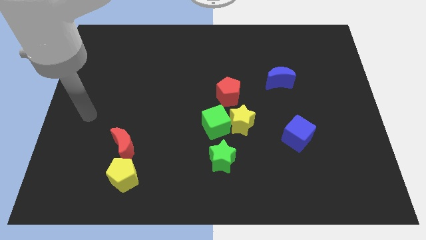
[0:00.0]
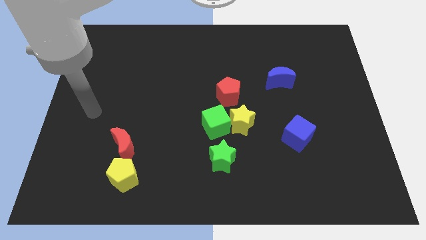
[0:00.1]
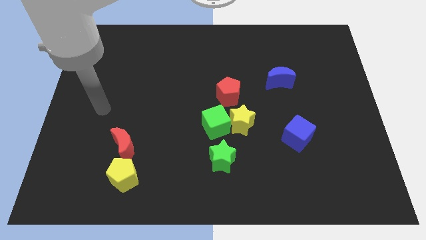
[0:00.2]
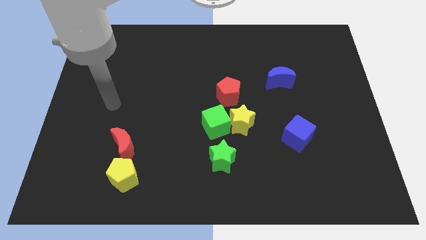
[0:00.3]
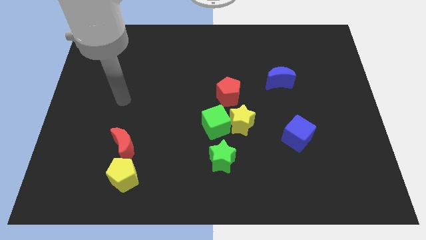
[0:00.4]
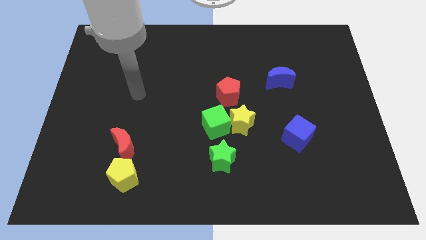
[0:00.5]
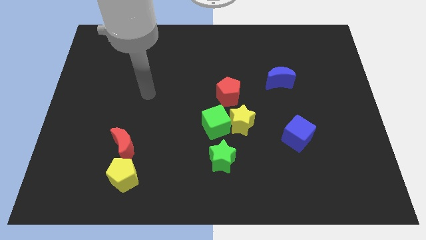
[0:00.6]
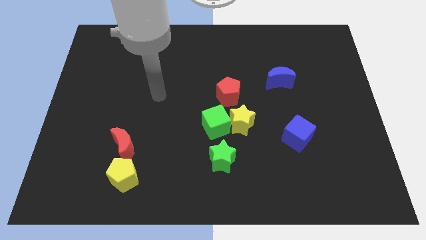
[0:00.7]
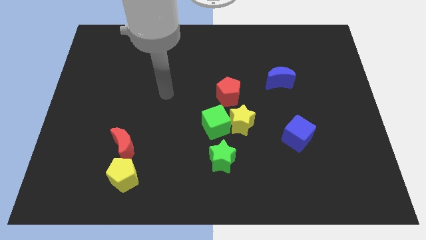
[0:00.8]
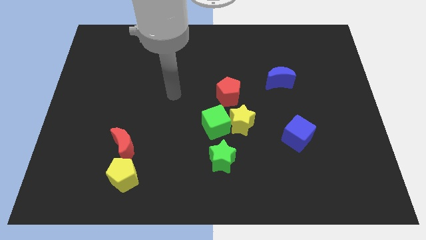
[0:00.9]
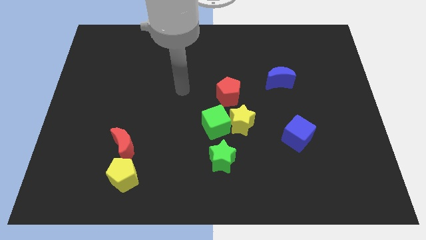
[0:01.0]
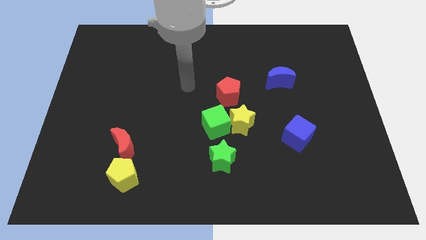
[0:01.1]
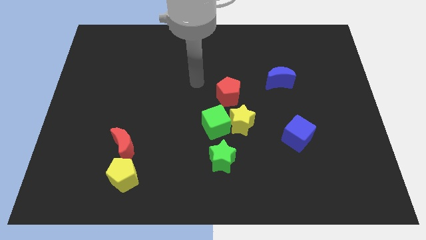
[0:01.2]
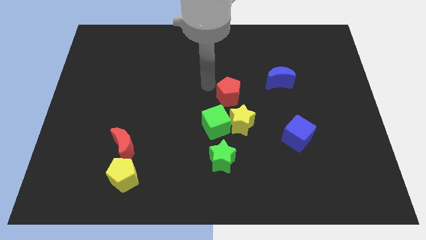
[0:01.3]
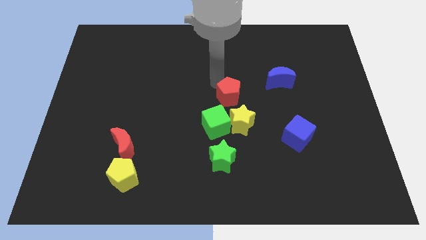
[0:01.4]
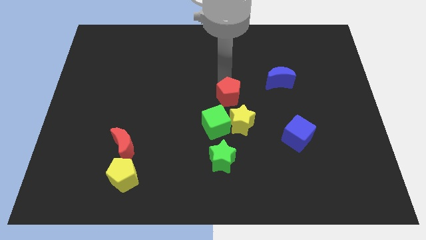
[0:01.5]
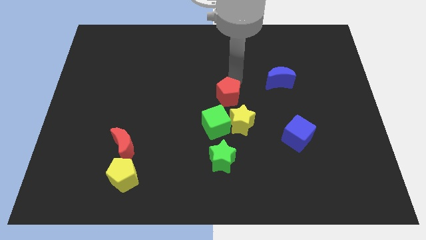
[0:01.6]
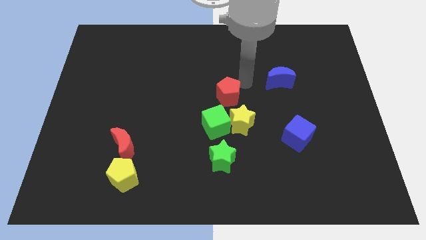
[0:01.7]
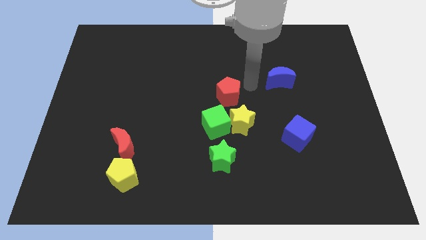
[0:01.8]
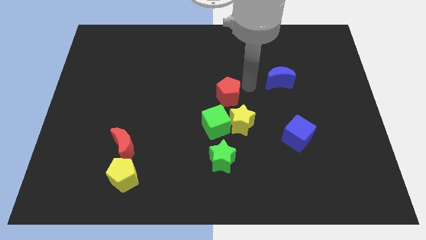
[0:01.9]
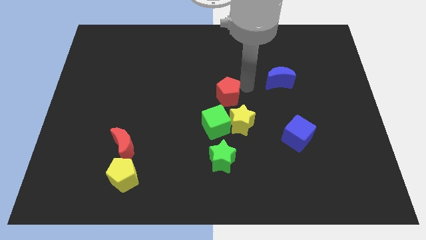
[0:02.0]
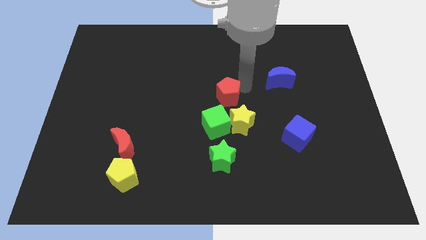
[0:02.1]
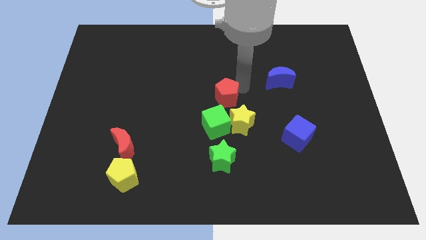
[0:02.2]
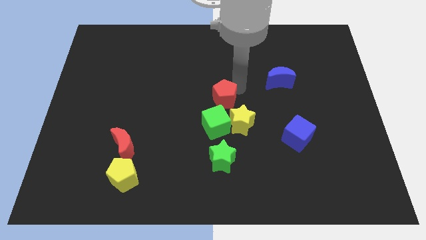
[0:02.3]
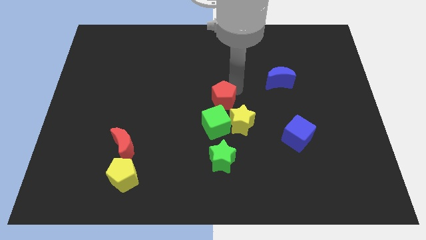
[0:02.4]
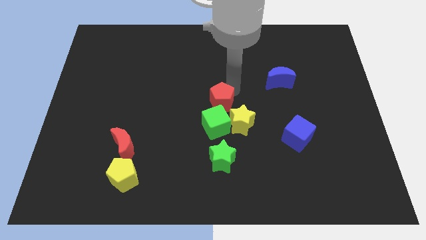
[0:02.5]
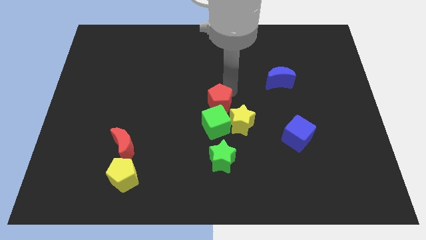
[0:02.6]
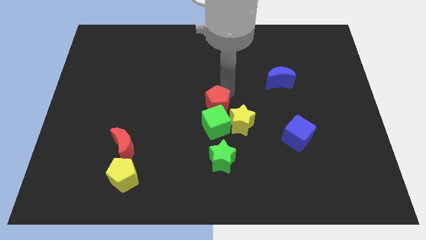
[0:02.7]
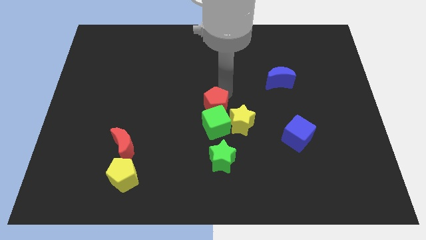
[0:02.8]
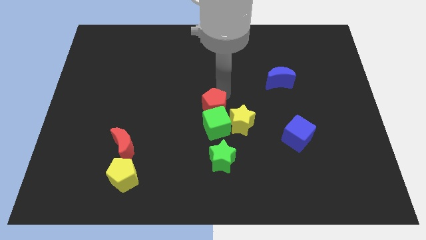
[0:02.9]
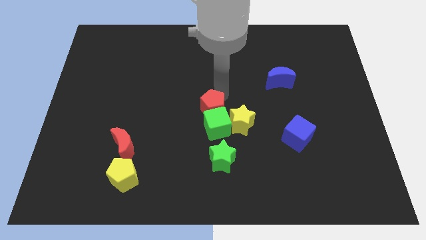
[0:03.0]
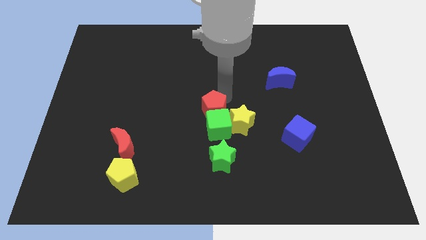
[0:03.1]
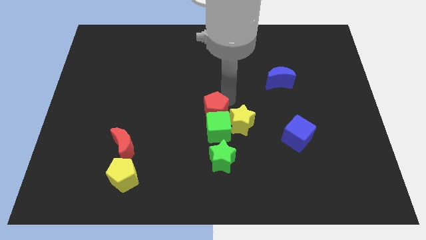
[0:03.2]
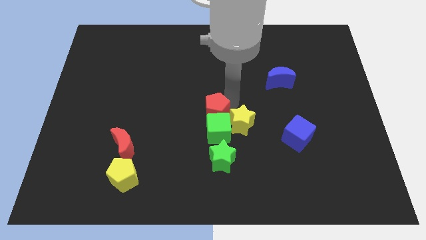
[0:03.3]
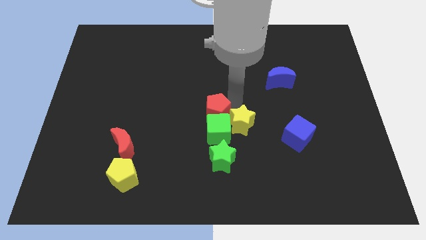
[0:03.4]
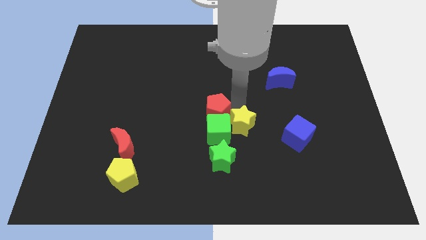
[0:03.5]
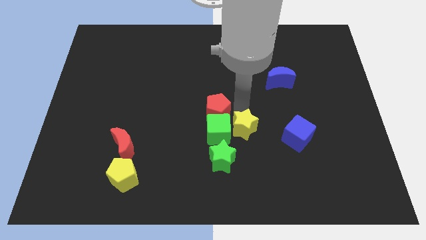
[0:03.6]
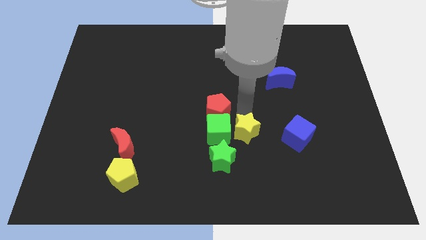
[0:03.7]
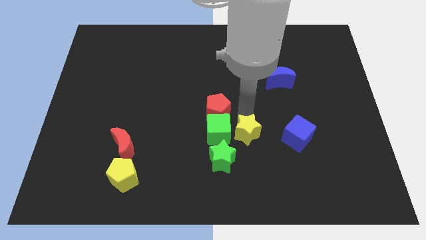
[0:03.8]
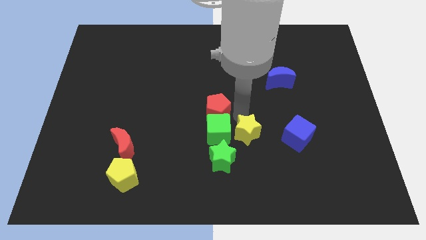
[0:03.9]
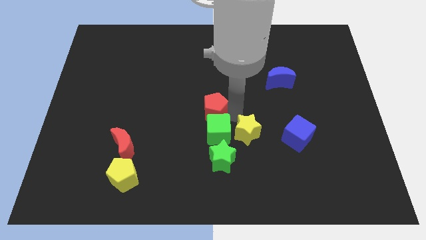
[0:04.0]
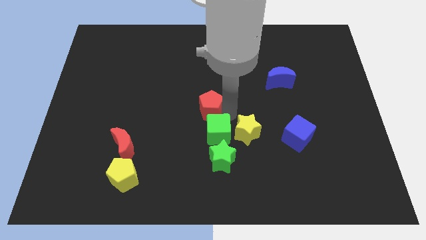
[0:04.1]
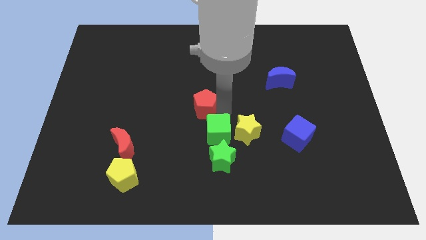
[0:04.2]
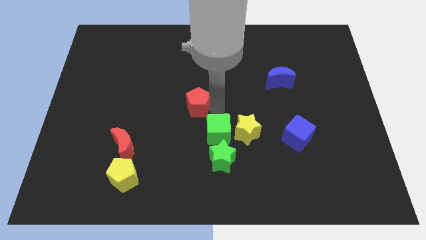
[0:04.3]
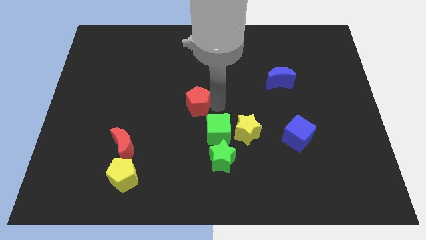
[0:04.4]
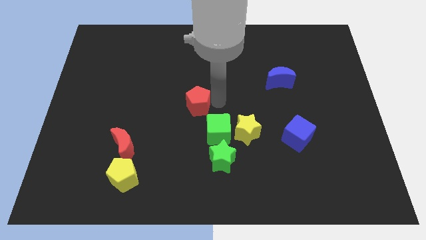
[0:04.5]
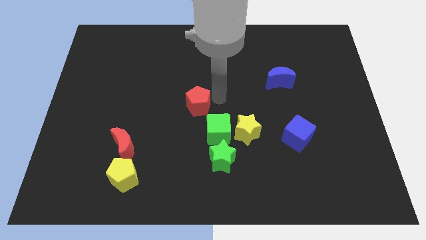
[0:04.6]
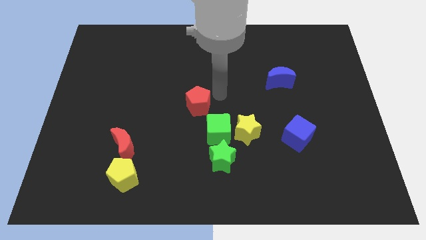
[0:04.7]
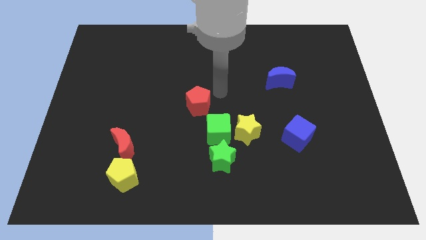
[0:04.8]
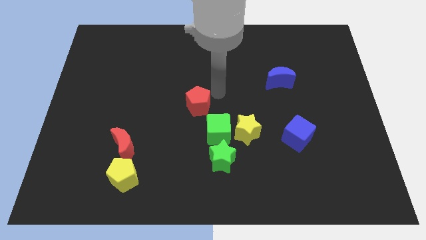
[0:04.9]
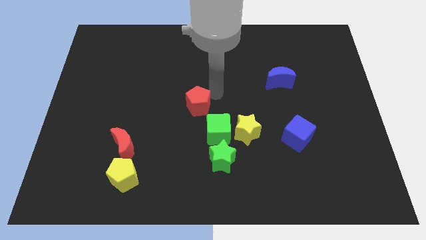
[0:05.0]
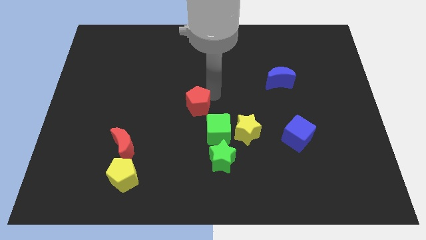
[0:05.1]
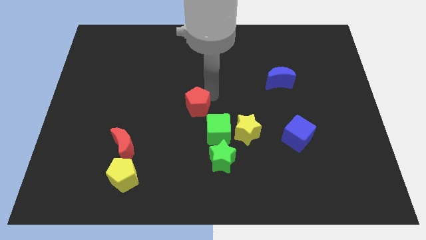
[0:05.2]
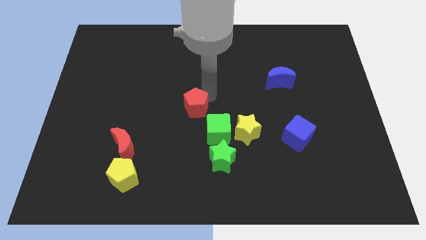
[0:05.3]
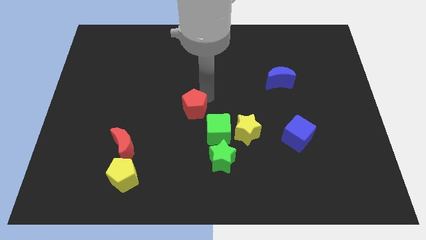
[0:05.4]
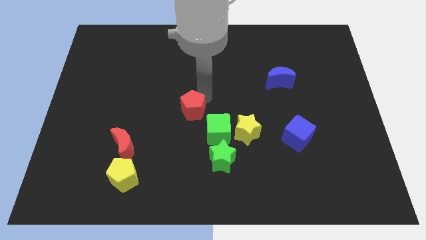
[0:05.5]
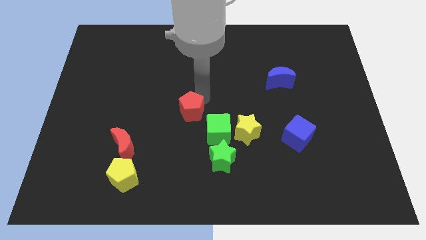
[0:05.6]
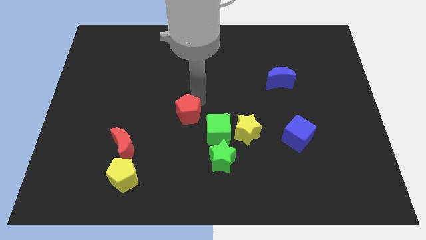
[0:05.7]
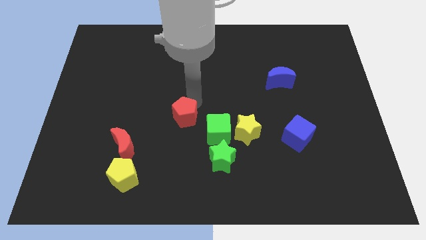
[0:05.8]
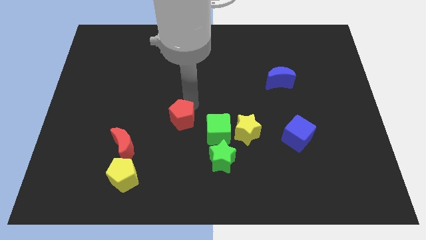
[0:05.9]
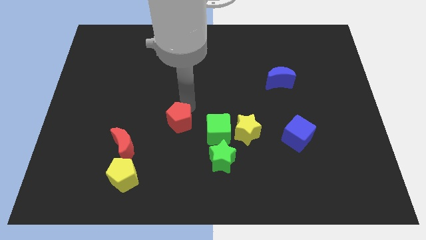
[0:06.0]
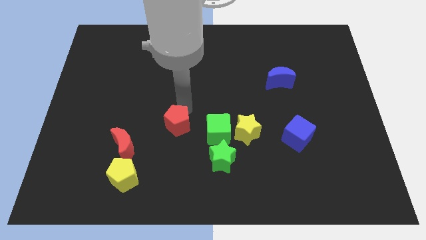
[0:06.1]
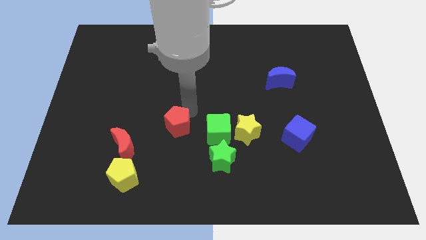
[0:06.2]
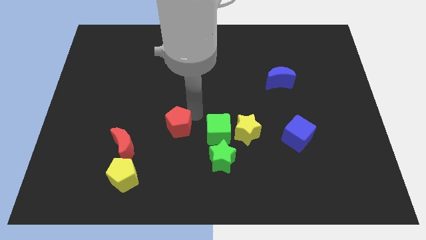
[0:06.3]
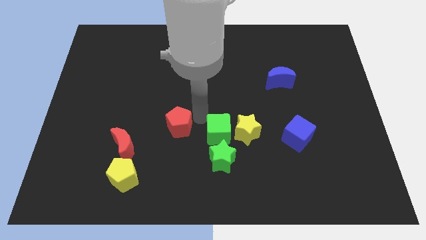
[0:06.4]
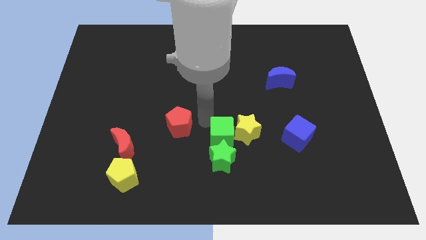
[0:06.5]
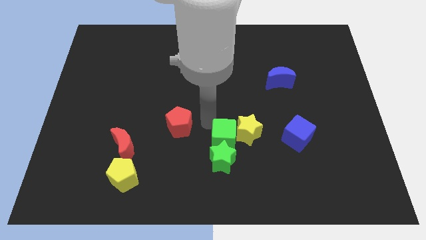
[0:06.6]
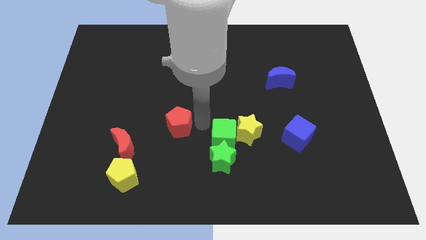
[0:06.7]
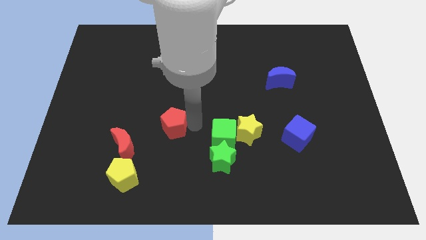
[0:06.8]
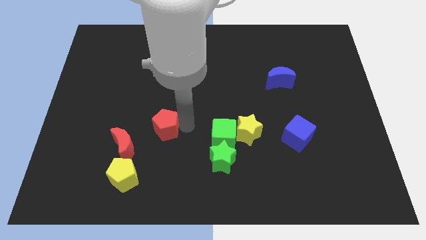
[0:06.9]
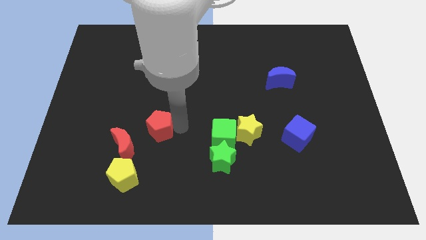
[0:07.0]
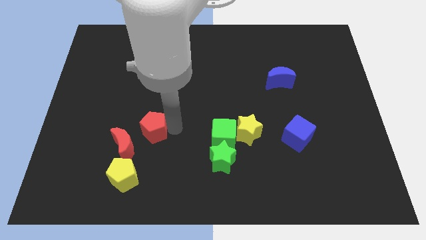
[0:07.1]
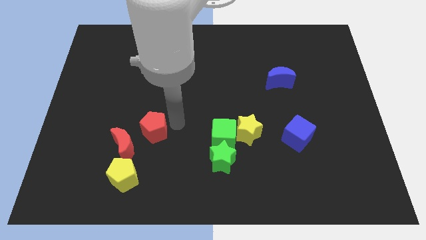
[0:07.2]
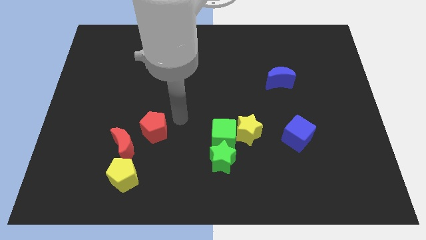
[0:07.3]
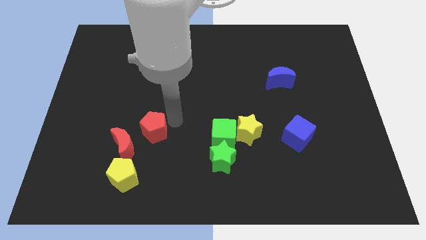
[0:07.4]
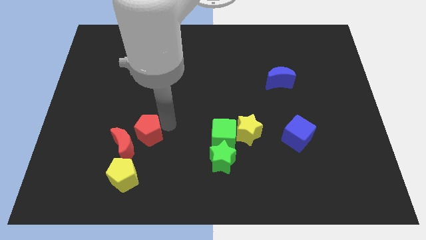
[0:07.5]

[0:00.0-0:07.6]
slide the red pentagon to the red moon
